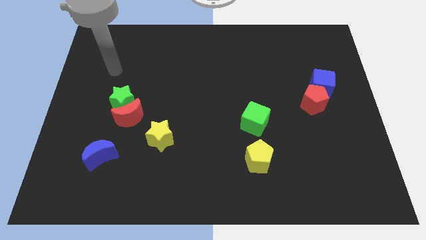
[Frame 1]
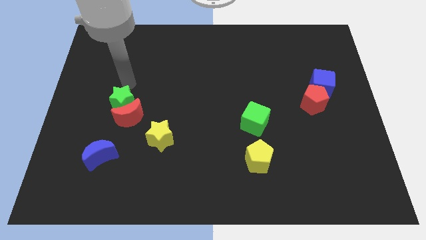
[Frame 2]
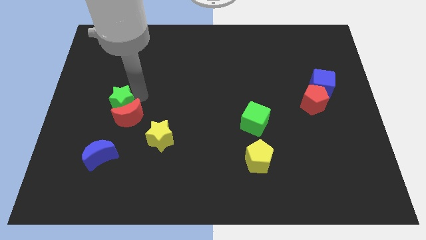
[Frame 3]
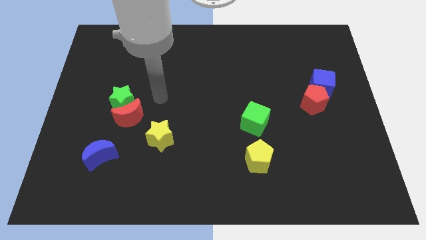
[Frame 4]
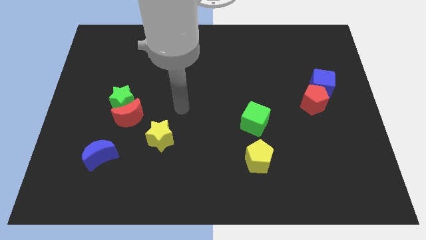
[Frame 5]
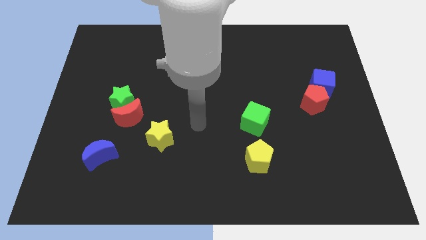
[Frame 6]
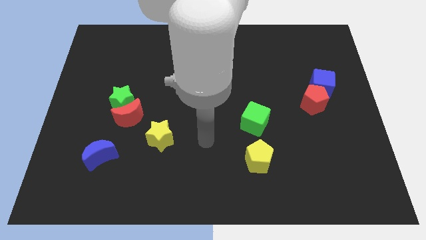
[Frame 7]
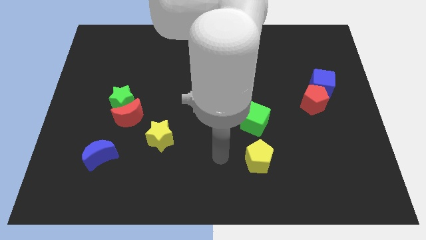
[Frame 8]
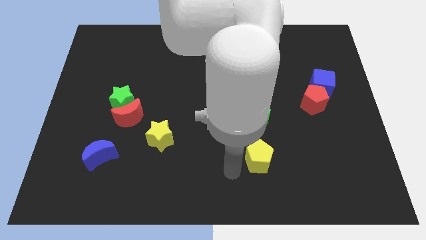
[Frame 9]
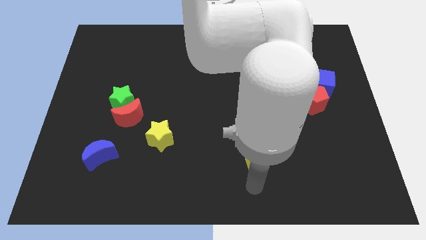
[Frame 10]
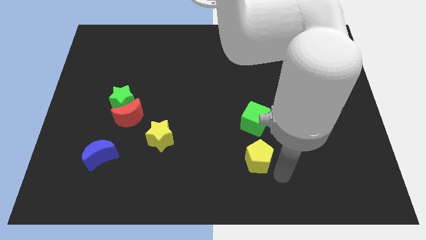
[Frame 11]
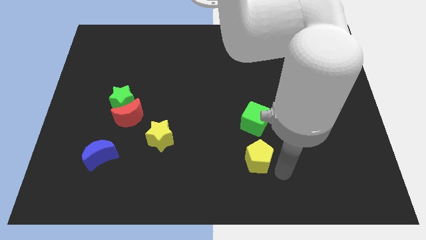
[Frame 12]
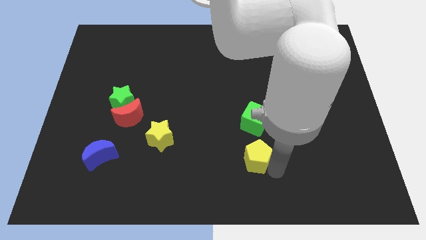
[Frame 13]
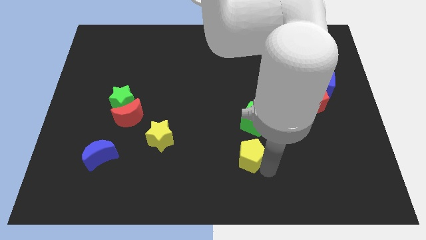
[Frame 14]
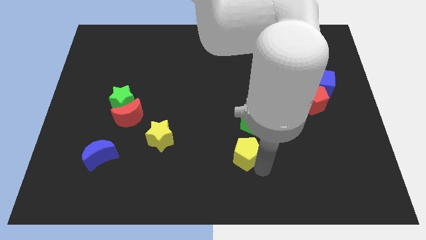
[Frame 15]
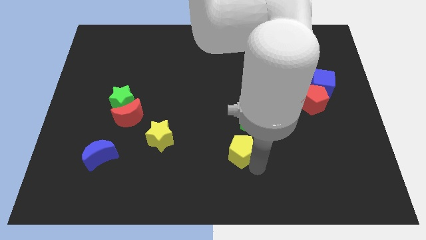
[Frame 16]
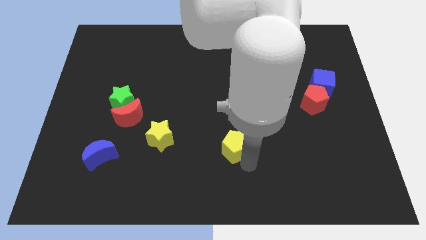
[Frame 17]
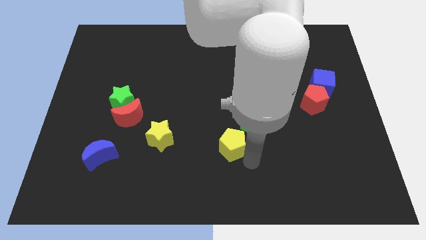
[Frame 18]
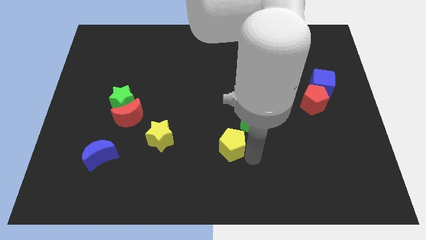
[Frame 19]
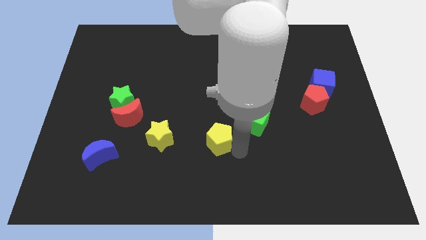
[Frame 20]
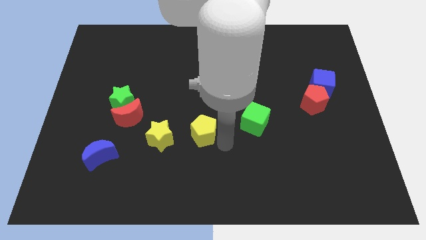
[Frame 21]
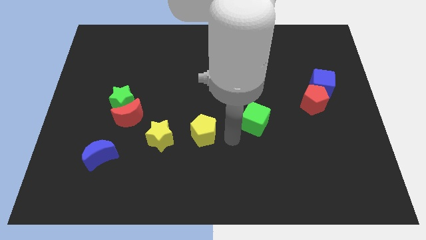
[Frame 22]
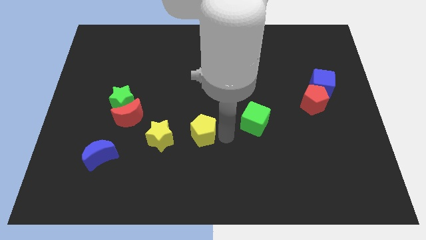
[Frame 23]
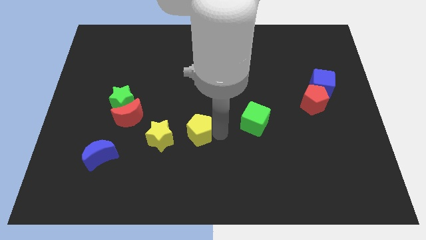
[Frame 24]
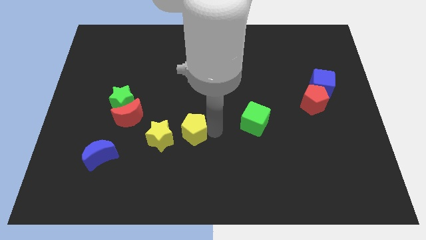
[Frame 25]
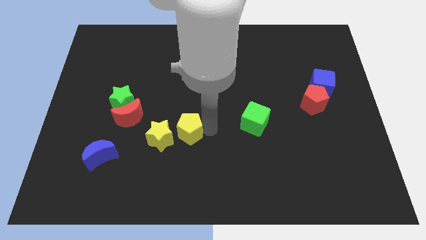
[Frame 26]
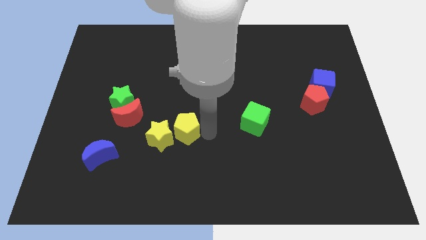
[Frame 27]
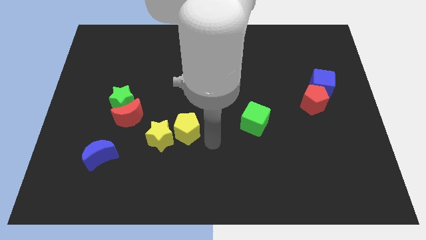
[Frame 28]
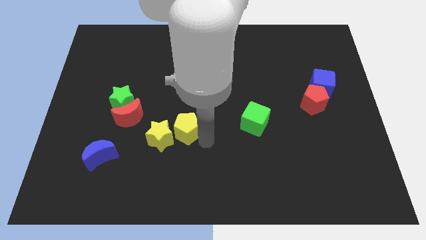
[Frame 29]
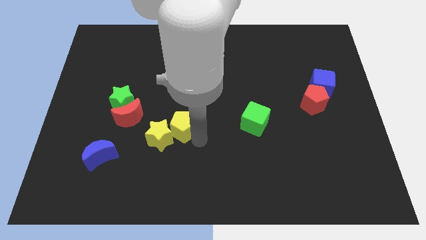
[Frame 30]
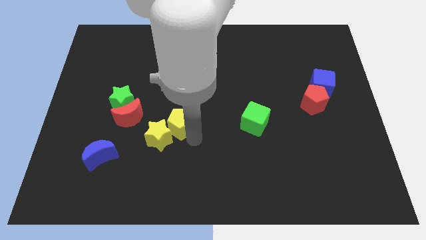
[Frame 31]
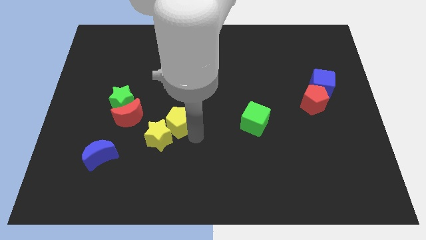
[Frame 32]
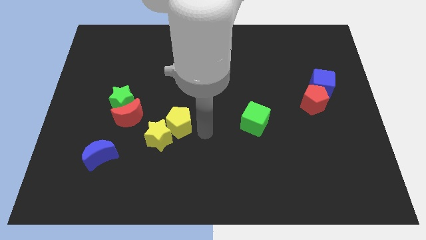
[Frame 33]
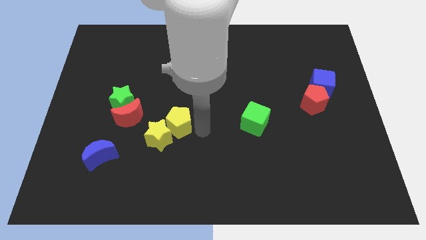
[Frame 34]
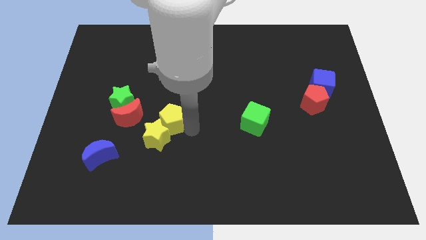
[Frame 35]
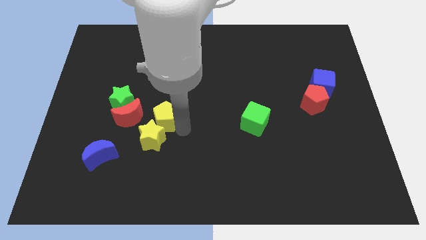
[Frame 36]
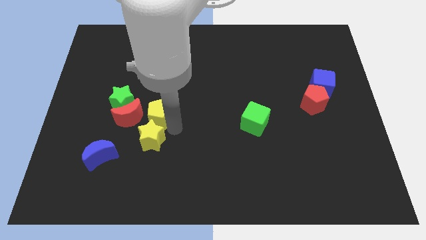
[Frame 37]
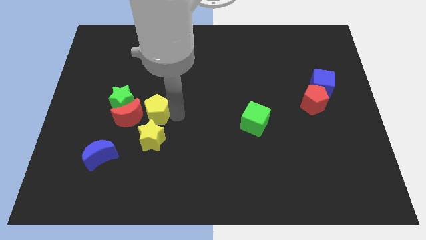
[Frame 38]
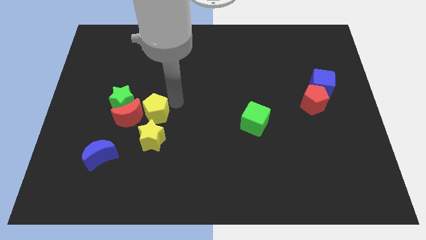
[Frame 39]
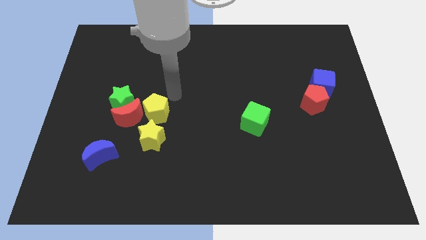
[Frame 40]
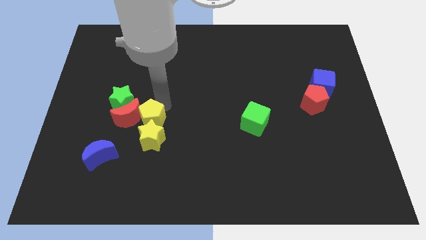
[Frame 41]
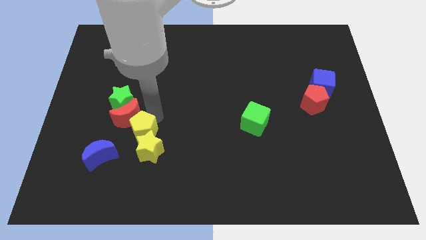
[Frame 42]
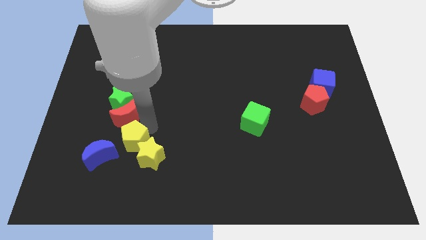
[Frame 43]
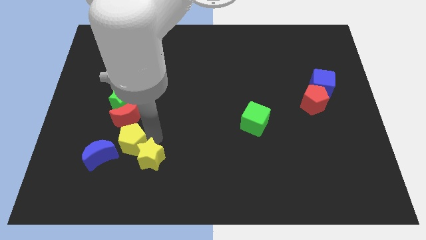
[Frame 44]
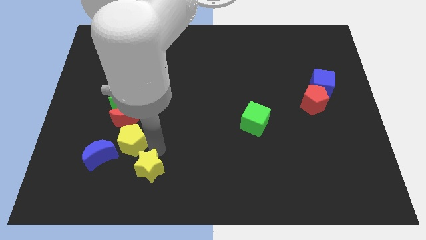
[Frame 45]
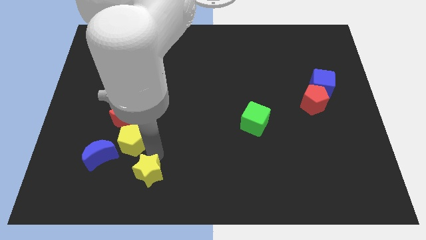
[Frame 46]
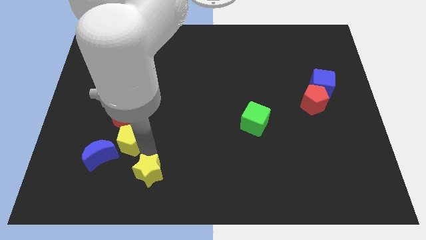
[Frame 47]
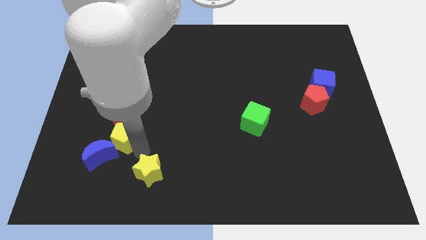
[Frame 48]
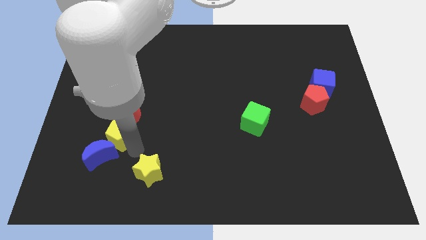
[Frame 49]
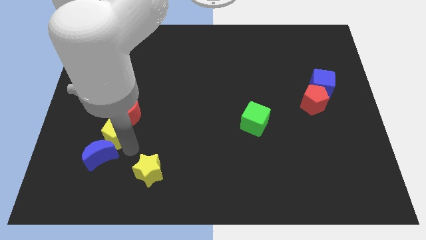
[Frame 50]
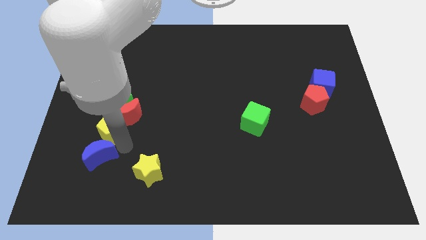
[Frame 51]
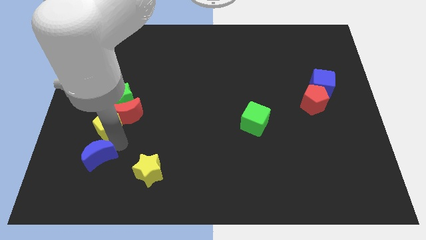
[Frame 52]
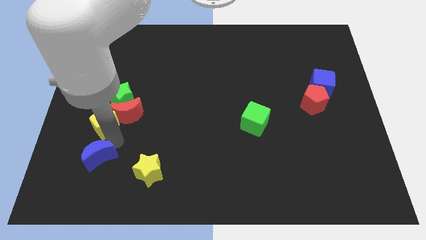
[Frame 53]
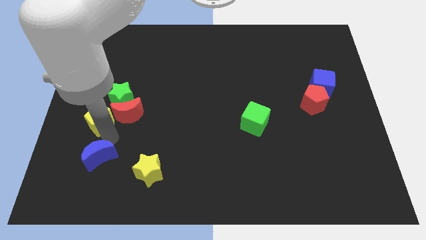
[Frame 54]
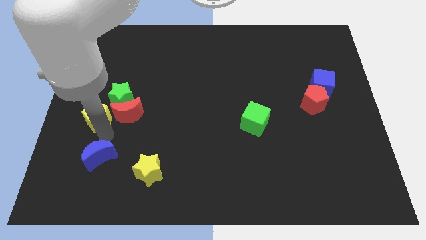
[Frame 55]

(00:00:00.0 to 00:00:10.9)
slide the yellow pentagon to the left side of the board
